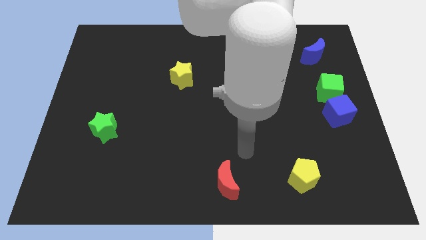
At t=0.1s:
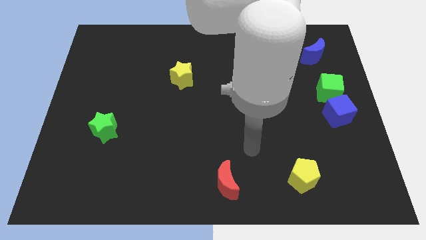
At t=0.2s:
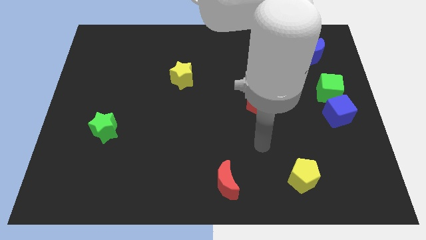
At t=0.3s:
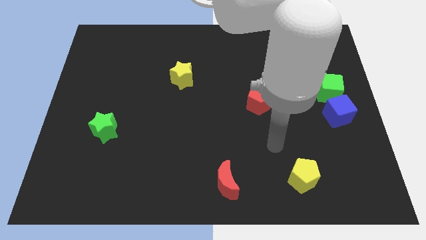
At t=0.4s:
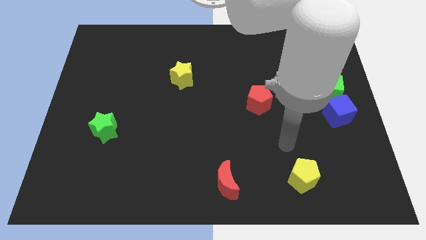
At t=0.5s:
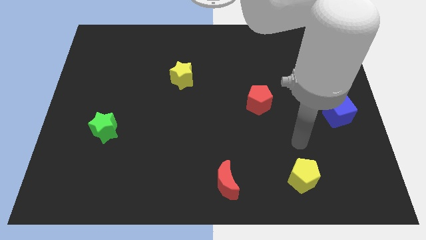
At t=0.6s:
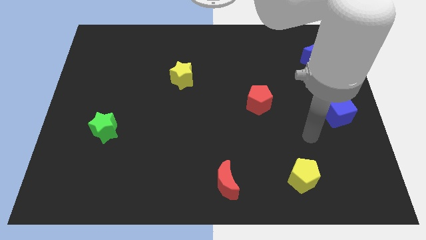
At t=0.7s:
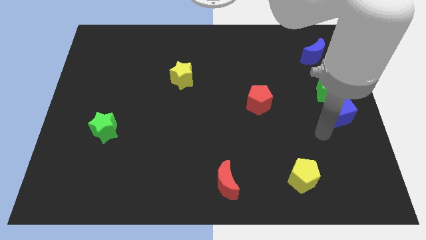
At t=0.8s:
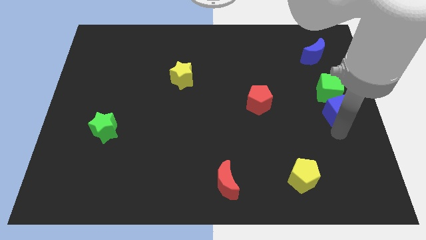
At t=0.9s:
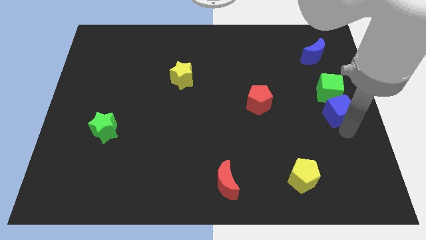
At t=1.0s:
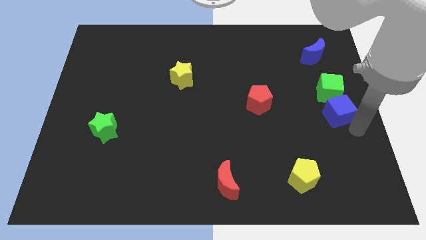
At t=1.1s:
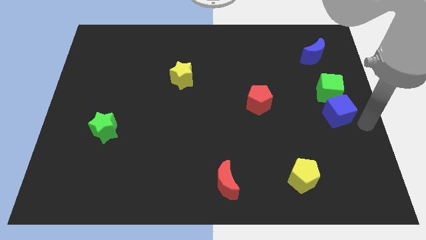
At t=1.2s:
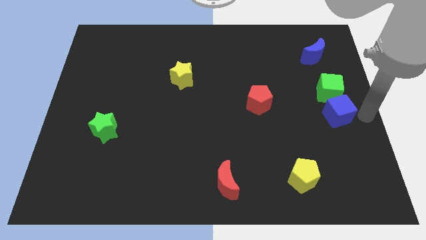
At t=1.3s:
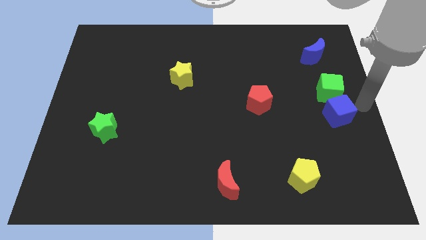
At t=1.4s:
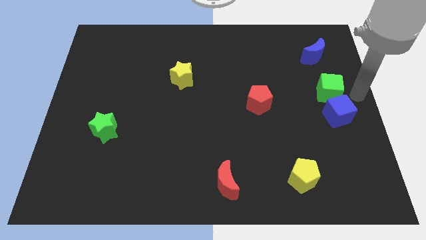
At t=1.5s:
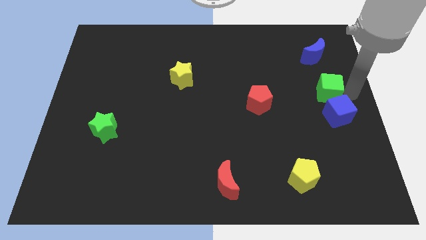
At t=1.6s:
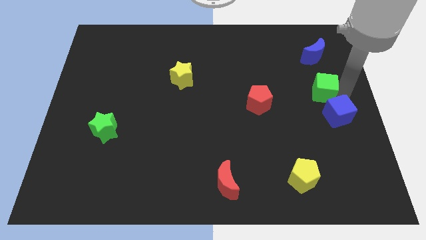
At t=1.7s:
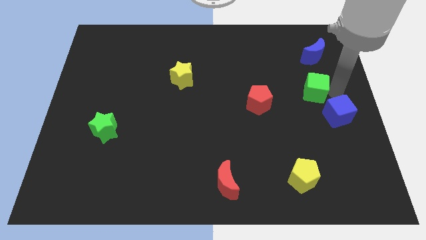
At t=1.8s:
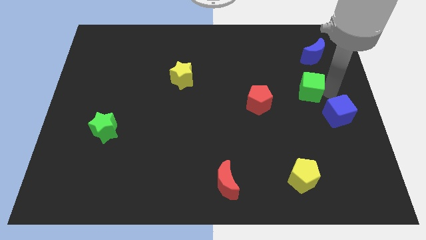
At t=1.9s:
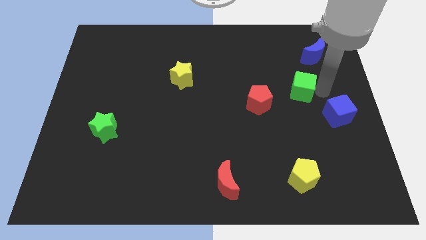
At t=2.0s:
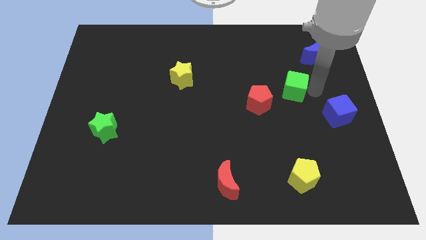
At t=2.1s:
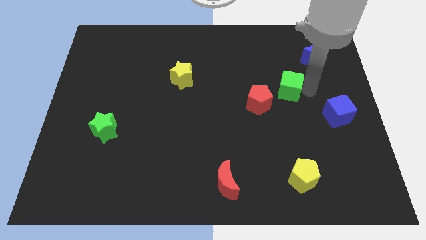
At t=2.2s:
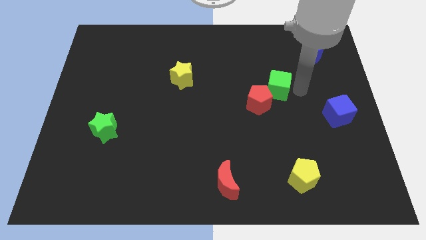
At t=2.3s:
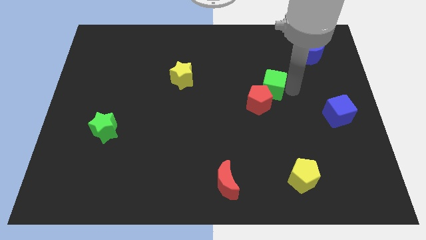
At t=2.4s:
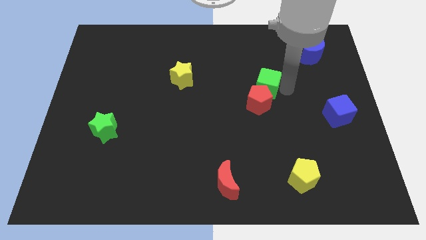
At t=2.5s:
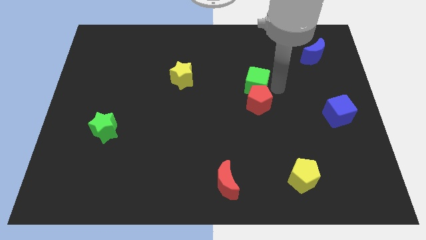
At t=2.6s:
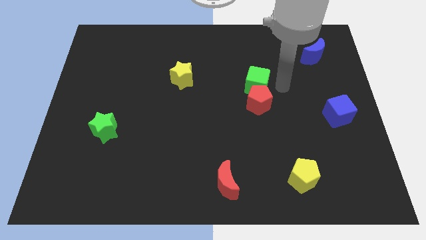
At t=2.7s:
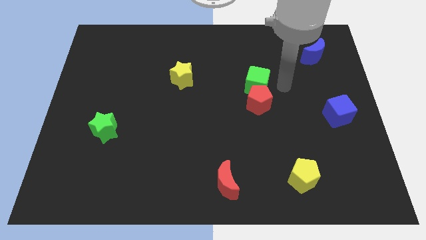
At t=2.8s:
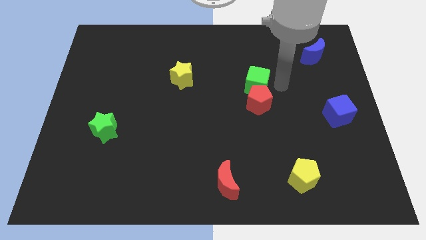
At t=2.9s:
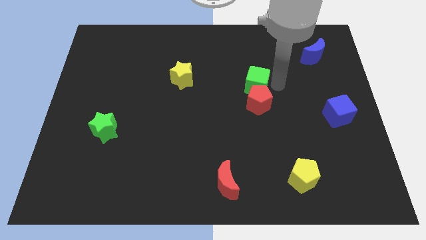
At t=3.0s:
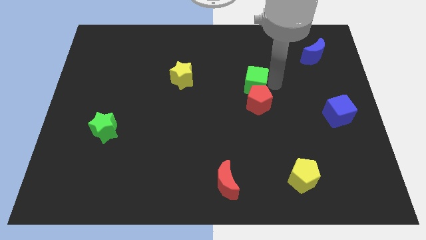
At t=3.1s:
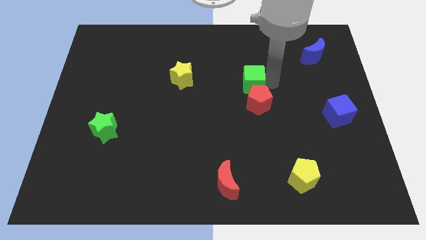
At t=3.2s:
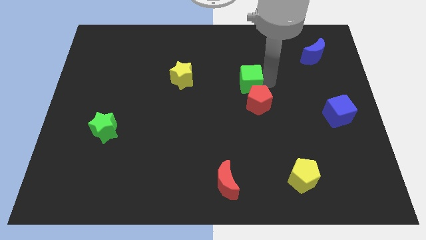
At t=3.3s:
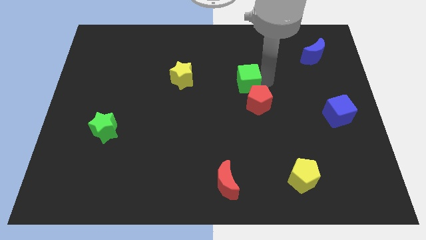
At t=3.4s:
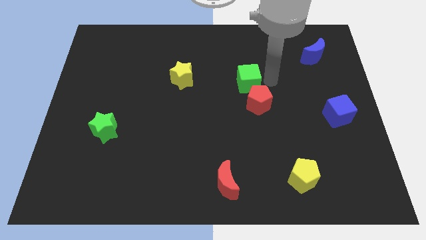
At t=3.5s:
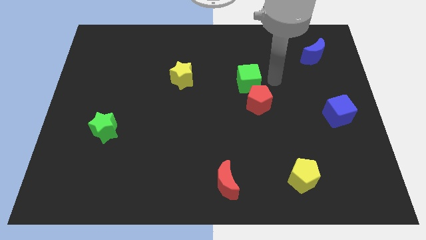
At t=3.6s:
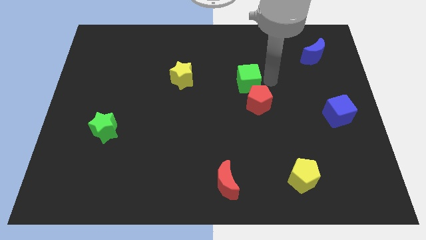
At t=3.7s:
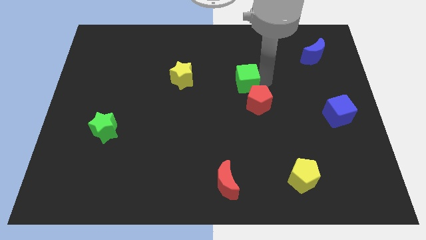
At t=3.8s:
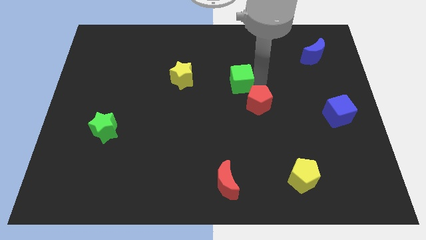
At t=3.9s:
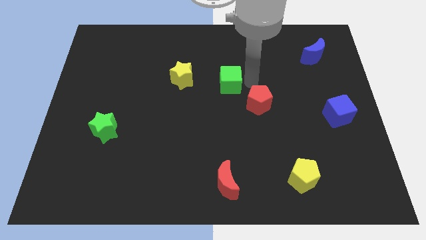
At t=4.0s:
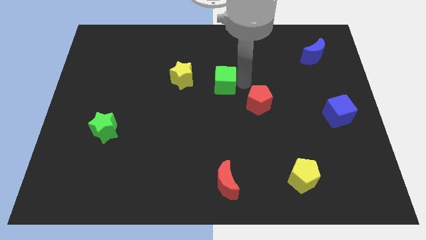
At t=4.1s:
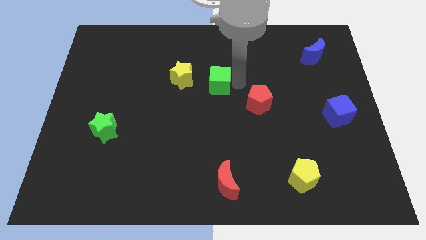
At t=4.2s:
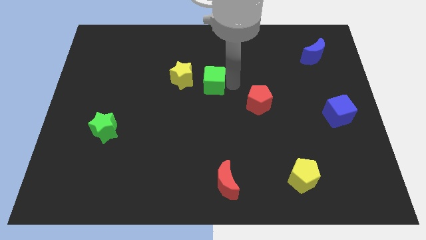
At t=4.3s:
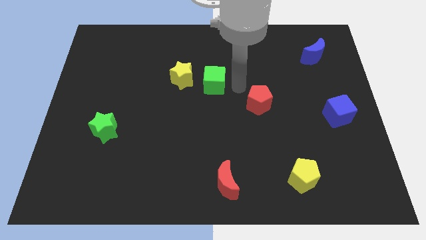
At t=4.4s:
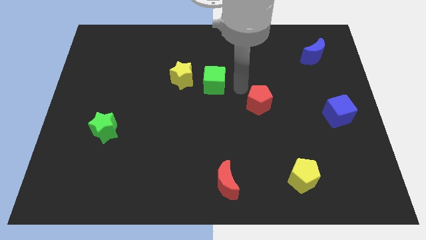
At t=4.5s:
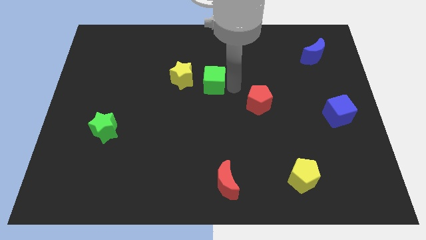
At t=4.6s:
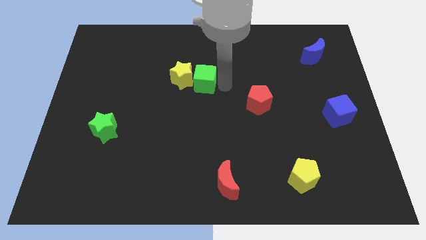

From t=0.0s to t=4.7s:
put the green cube towards the yellow star

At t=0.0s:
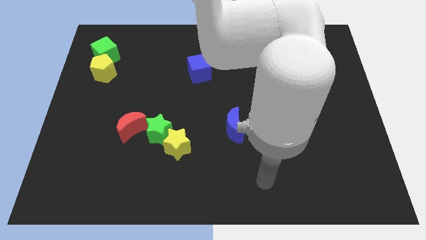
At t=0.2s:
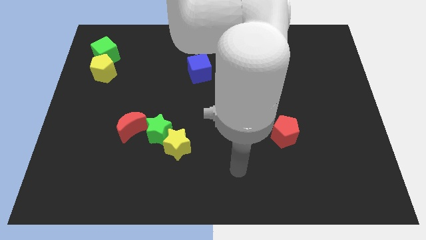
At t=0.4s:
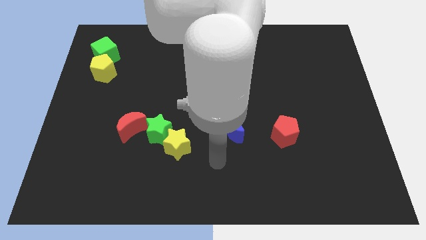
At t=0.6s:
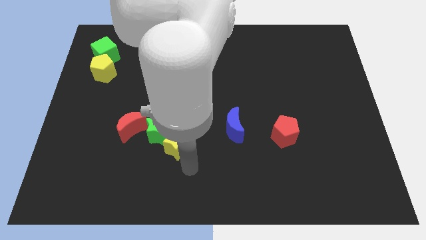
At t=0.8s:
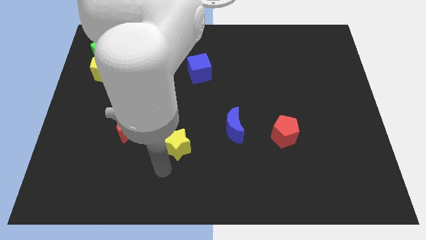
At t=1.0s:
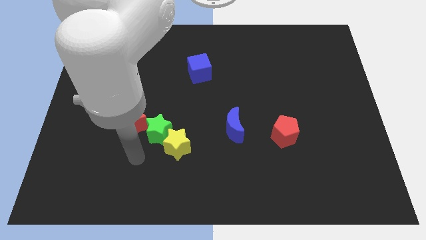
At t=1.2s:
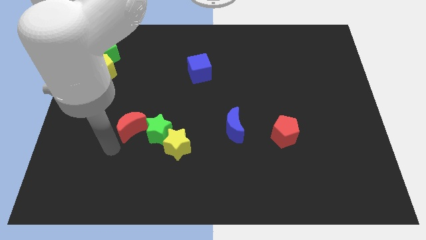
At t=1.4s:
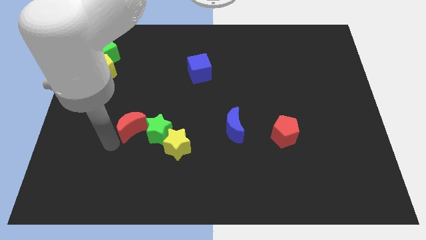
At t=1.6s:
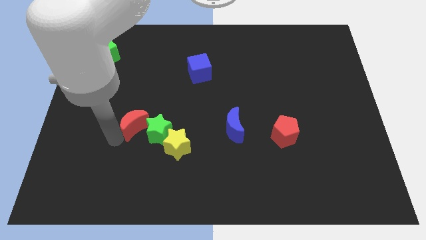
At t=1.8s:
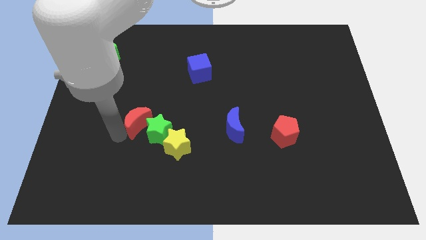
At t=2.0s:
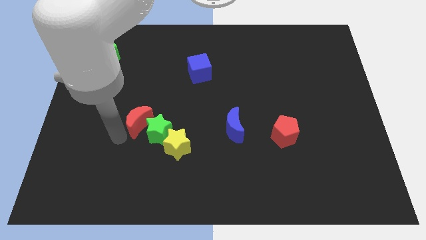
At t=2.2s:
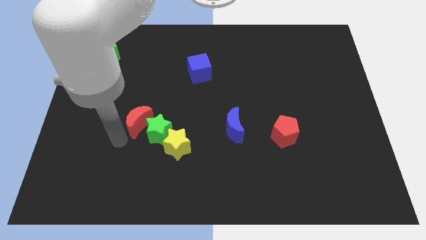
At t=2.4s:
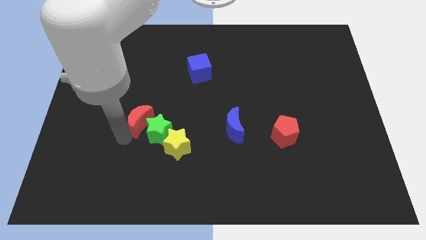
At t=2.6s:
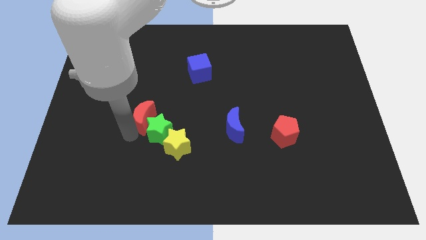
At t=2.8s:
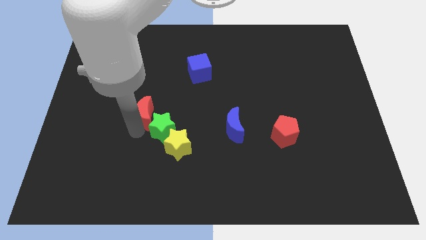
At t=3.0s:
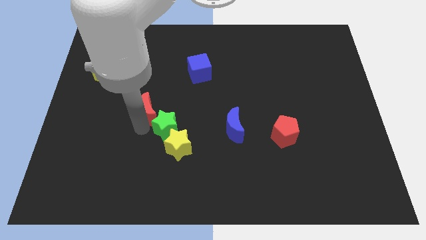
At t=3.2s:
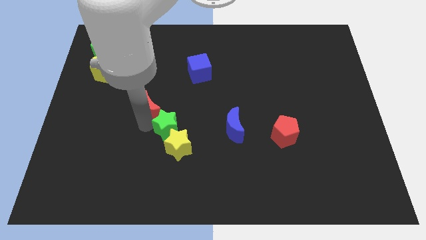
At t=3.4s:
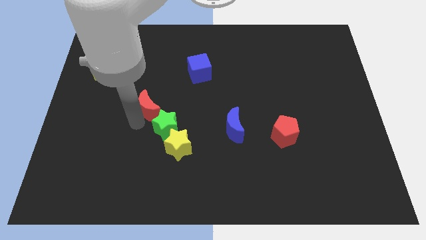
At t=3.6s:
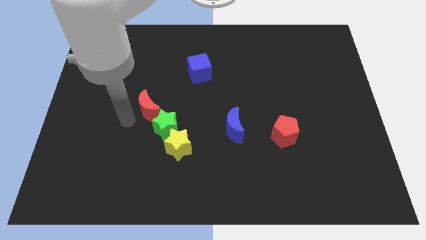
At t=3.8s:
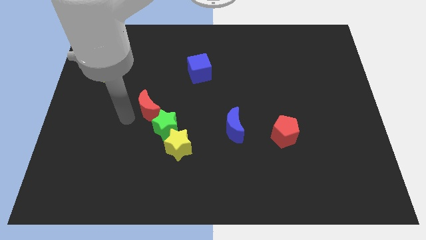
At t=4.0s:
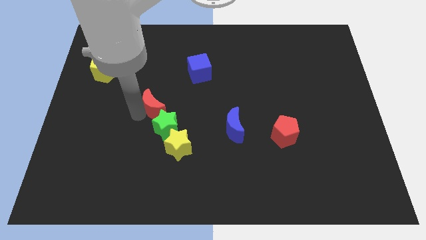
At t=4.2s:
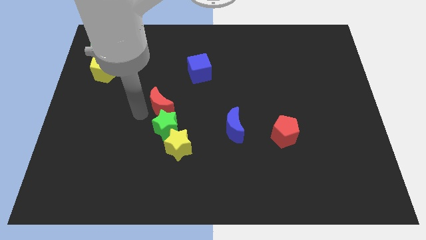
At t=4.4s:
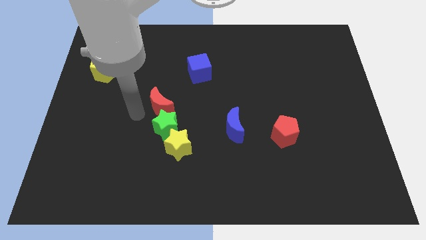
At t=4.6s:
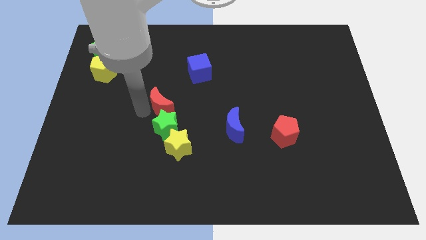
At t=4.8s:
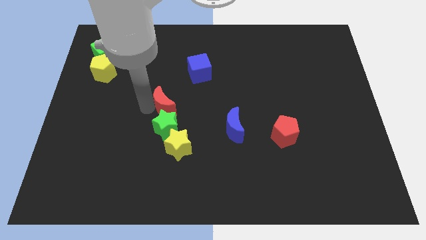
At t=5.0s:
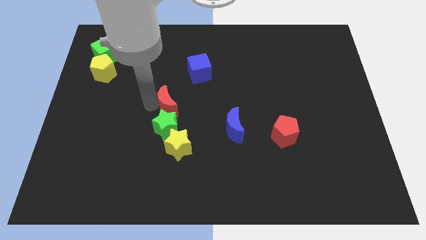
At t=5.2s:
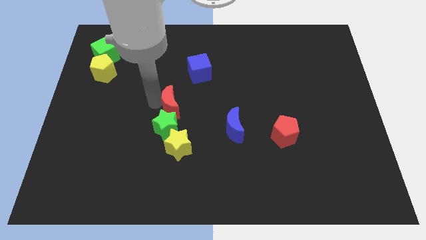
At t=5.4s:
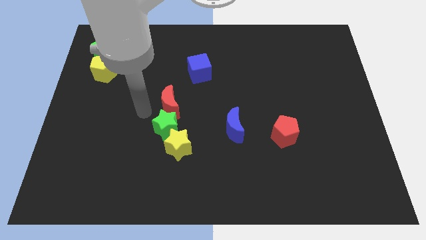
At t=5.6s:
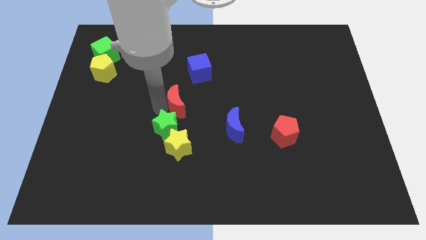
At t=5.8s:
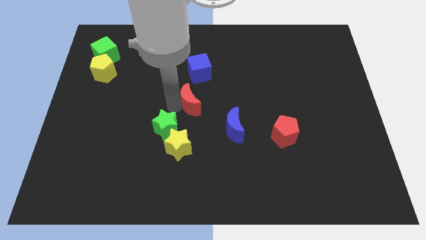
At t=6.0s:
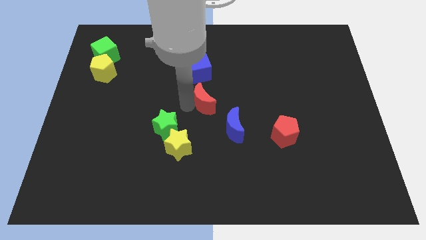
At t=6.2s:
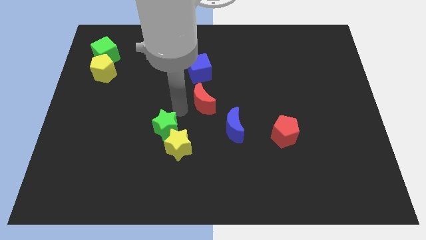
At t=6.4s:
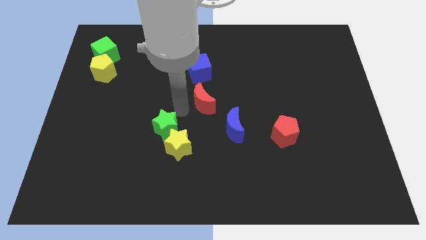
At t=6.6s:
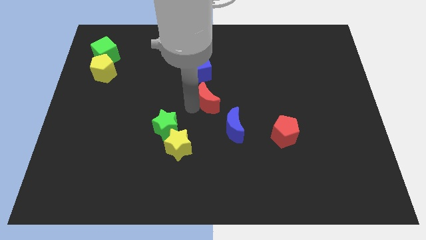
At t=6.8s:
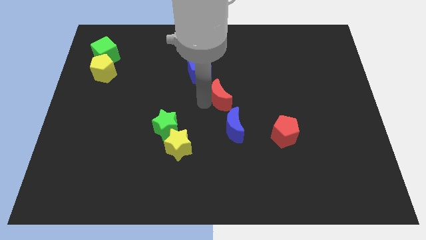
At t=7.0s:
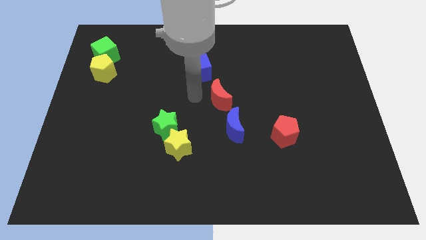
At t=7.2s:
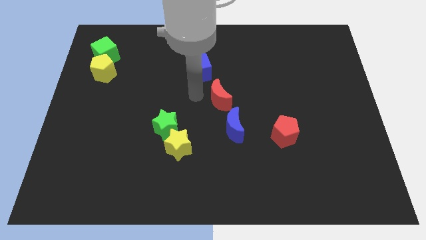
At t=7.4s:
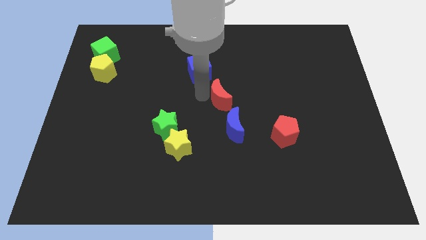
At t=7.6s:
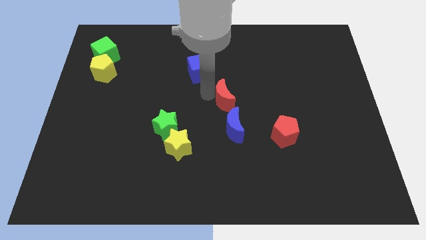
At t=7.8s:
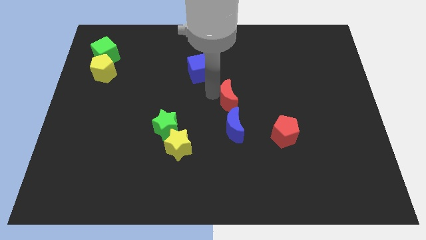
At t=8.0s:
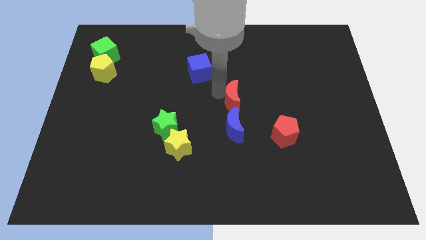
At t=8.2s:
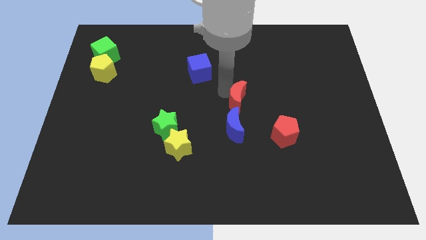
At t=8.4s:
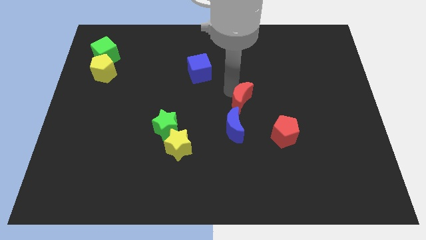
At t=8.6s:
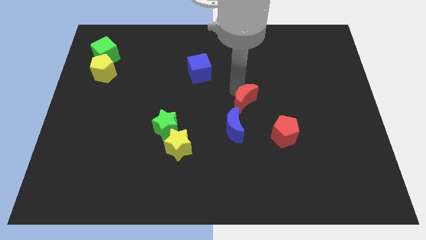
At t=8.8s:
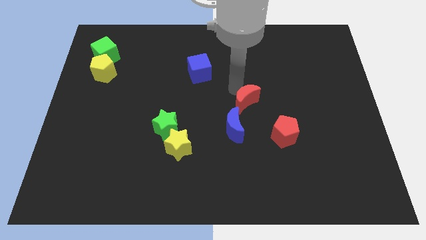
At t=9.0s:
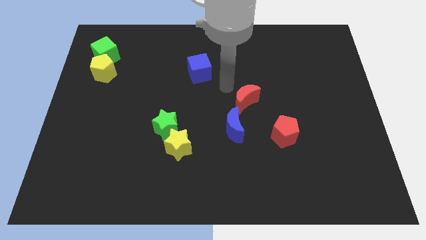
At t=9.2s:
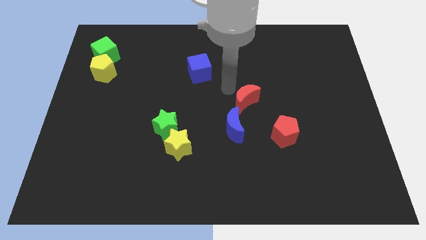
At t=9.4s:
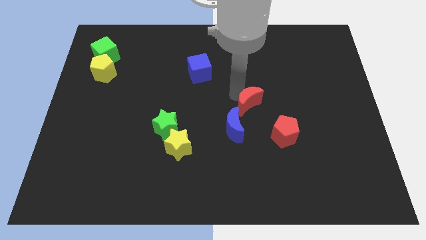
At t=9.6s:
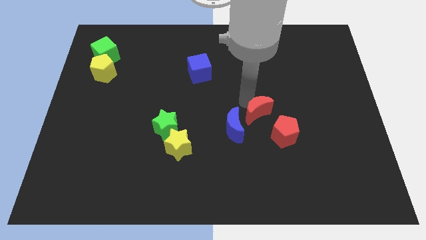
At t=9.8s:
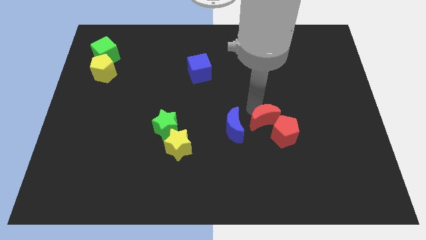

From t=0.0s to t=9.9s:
put the red moon next to the red pentagon
